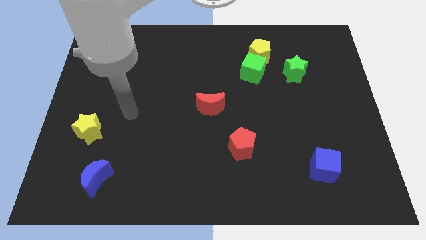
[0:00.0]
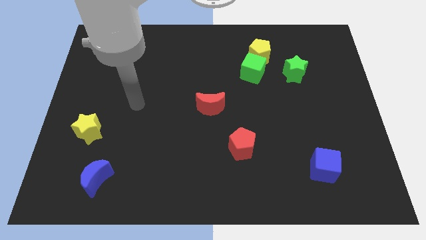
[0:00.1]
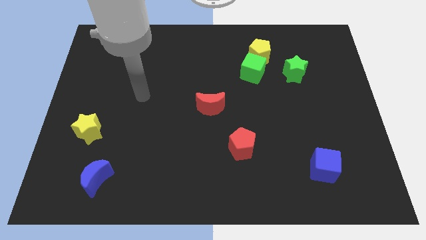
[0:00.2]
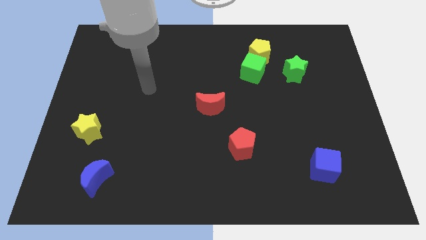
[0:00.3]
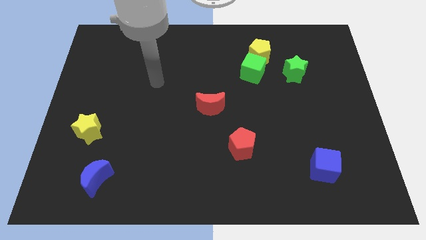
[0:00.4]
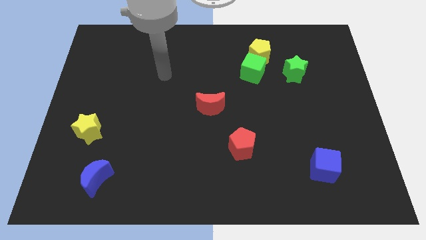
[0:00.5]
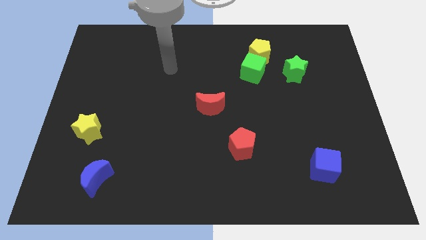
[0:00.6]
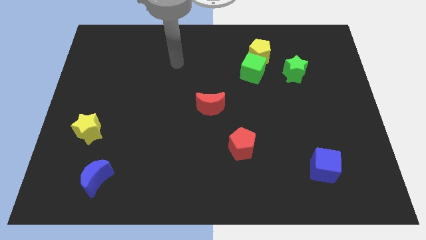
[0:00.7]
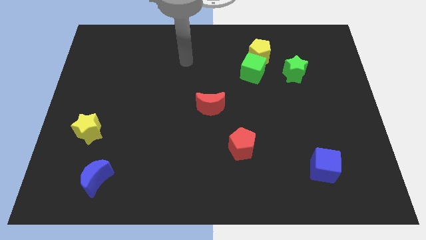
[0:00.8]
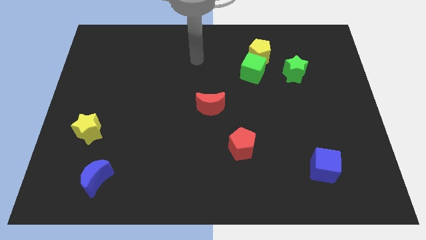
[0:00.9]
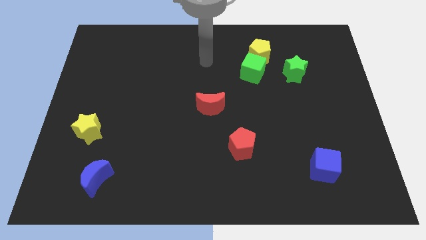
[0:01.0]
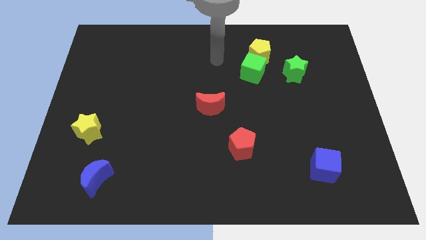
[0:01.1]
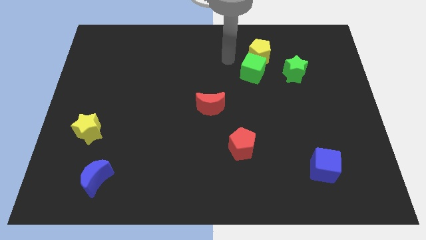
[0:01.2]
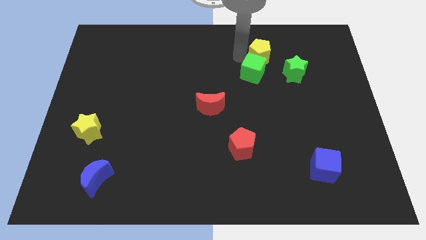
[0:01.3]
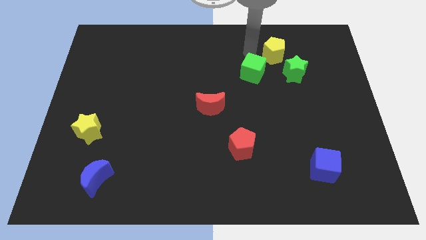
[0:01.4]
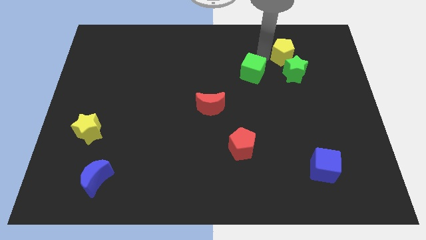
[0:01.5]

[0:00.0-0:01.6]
pull the green cube apart from the yellow pentagon

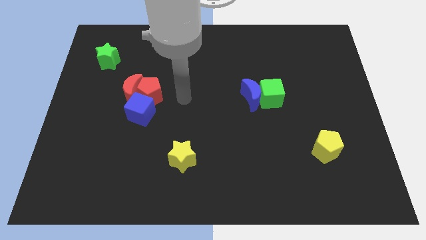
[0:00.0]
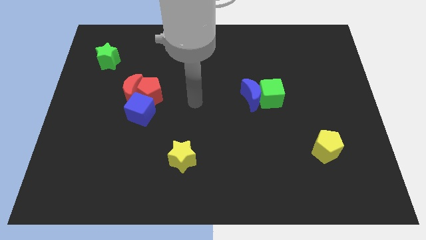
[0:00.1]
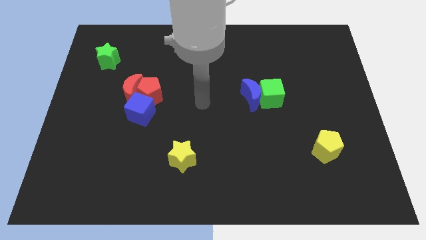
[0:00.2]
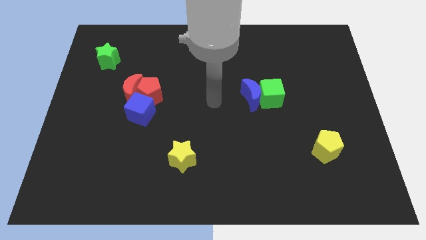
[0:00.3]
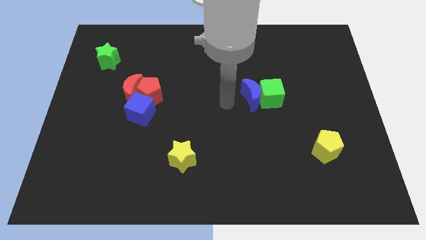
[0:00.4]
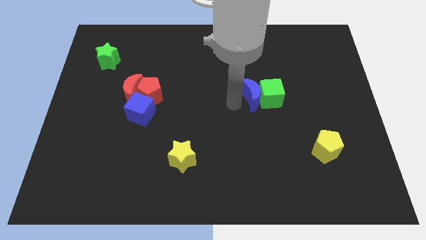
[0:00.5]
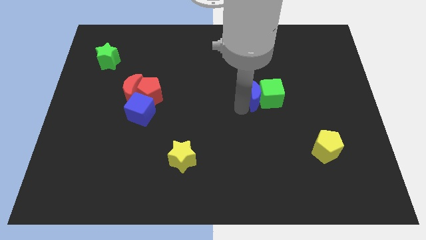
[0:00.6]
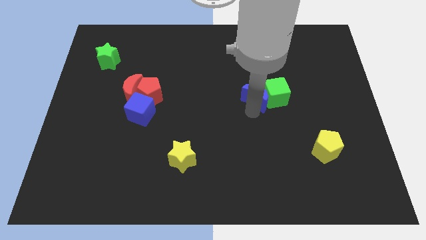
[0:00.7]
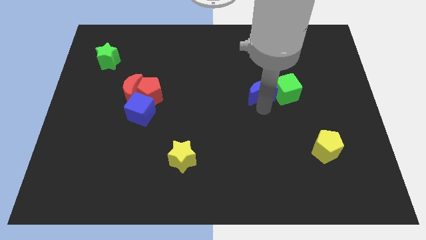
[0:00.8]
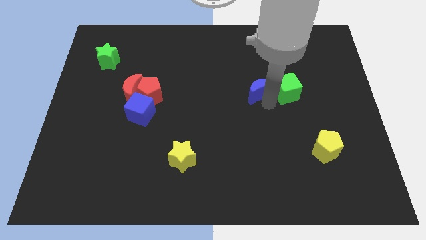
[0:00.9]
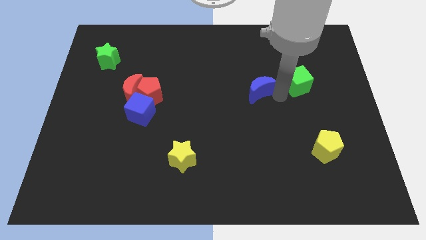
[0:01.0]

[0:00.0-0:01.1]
move the blue moon away from the green cube

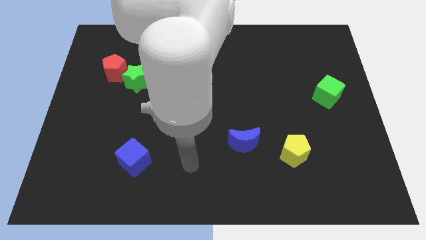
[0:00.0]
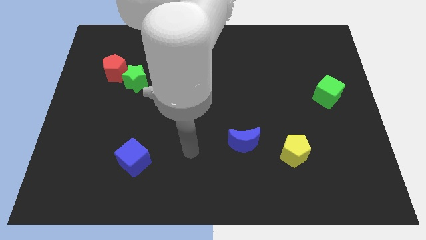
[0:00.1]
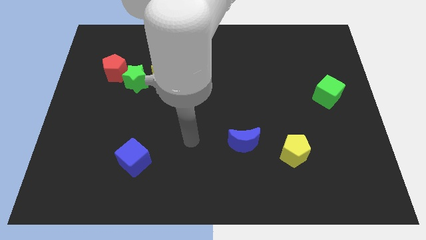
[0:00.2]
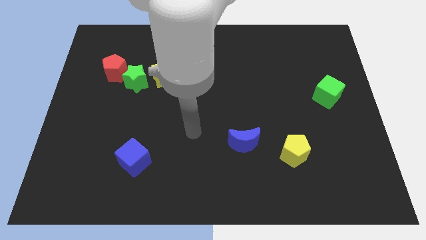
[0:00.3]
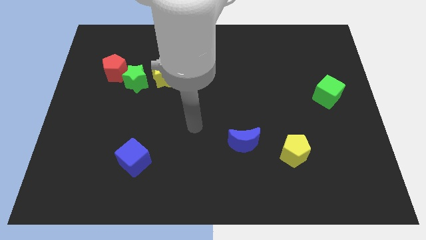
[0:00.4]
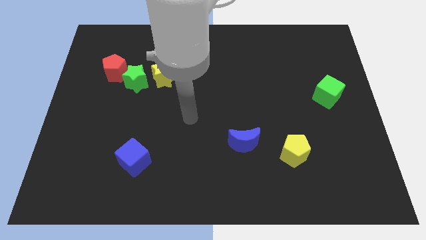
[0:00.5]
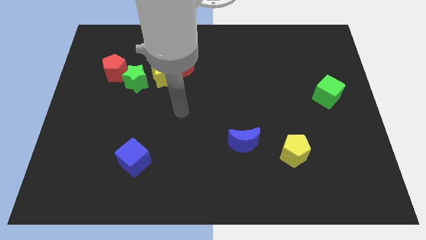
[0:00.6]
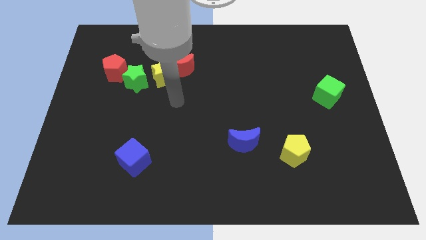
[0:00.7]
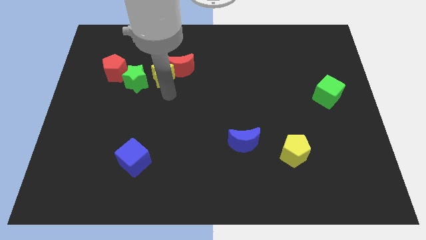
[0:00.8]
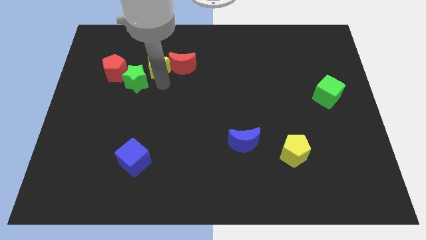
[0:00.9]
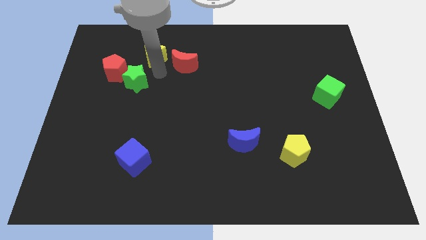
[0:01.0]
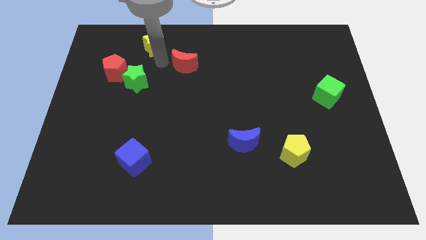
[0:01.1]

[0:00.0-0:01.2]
separate the red moon from the yellow star

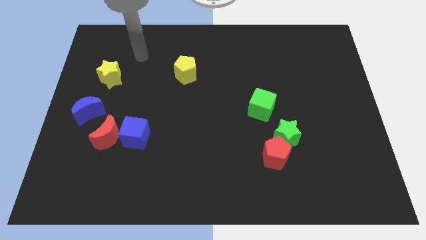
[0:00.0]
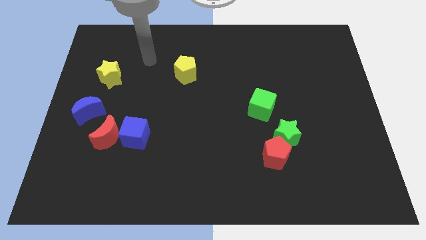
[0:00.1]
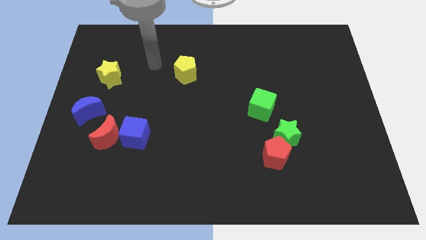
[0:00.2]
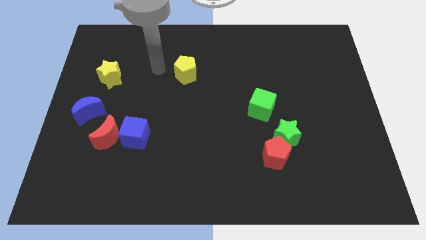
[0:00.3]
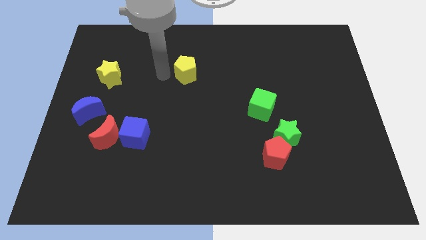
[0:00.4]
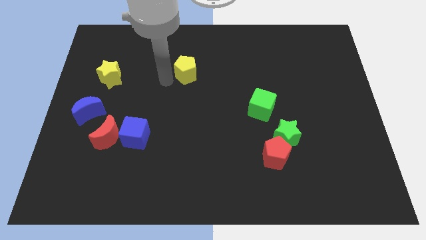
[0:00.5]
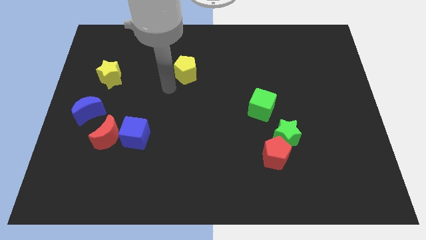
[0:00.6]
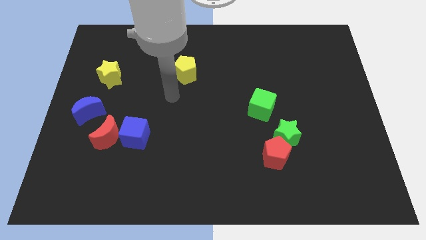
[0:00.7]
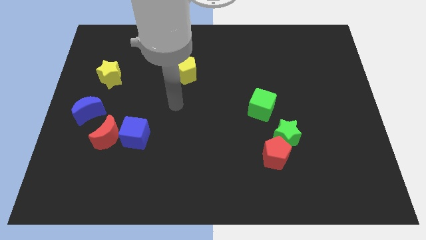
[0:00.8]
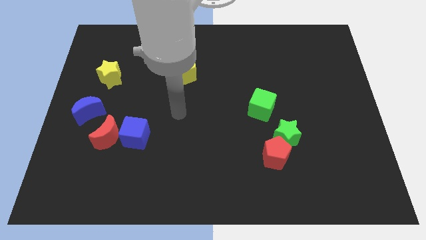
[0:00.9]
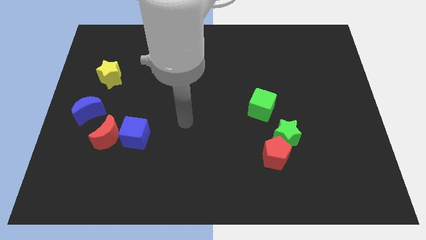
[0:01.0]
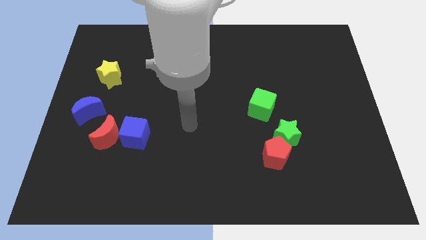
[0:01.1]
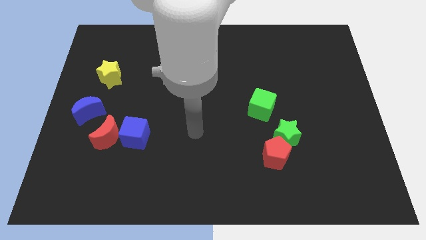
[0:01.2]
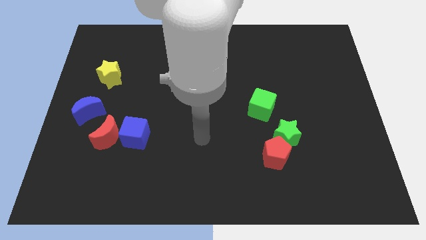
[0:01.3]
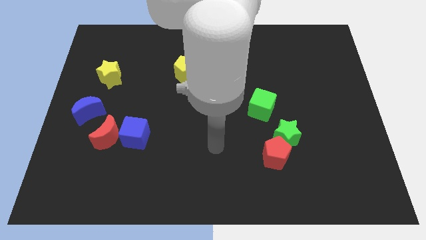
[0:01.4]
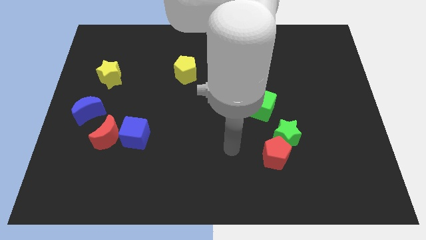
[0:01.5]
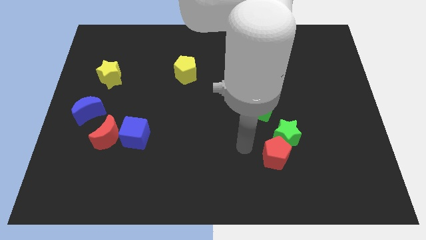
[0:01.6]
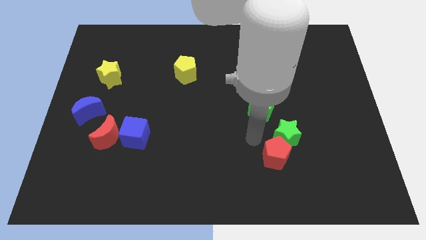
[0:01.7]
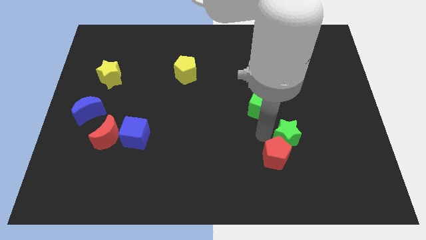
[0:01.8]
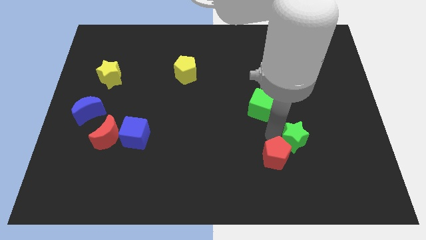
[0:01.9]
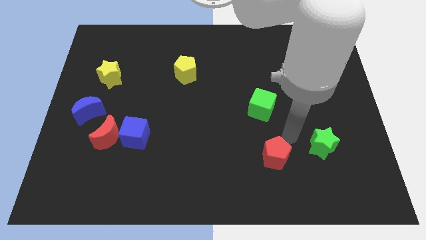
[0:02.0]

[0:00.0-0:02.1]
pull the red pentagon apart from the green star

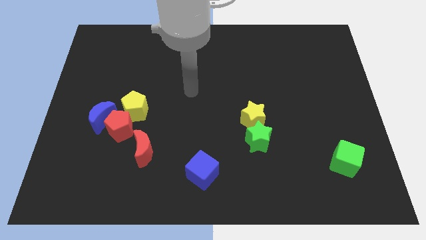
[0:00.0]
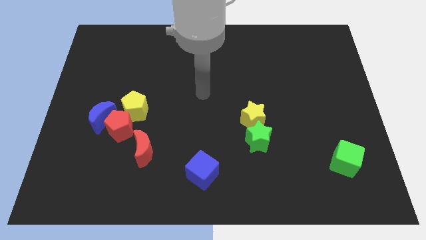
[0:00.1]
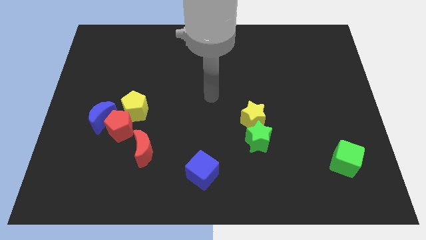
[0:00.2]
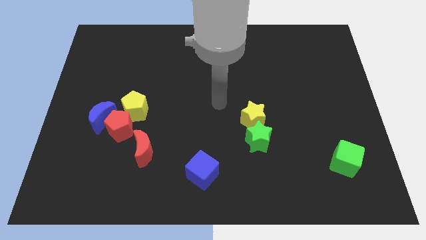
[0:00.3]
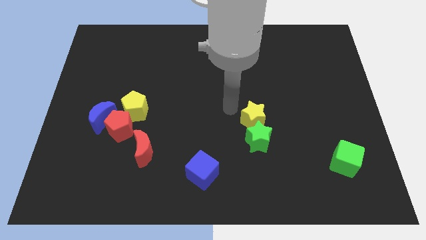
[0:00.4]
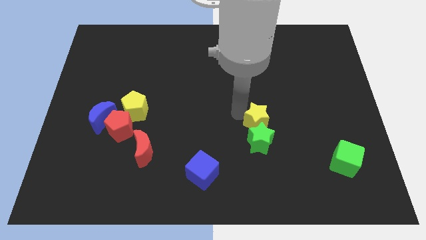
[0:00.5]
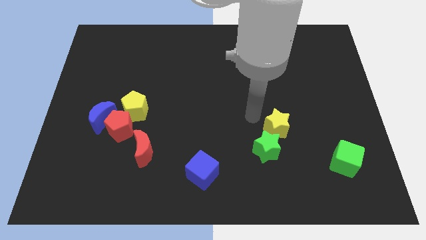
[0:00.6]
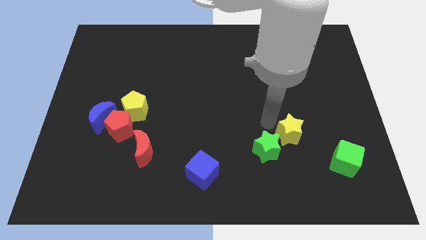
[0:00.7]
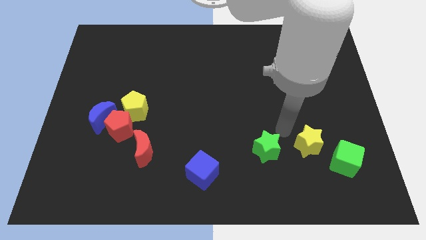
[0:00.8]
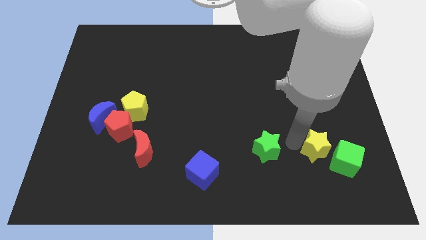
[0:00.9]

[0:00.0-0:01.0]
move the green star away from the yellow star

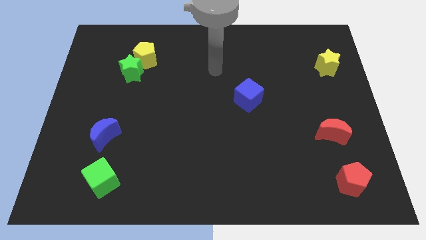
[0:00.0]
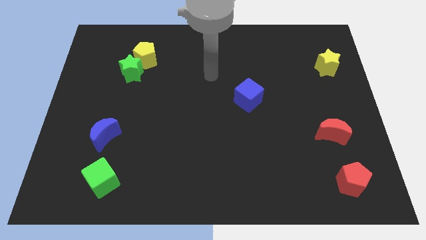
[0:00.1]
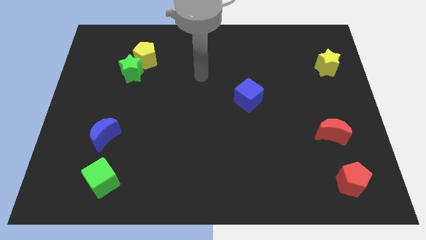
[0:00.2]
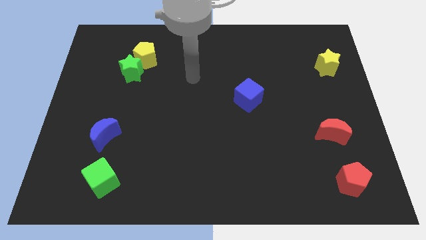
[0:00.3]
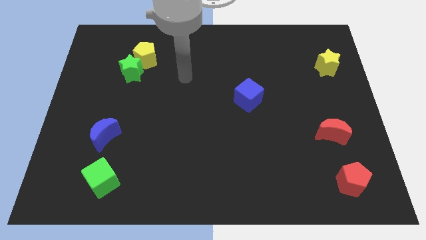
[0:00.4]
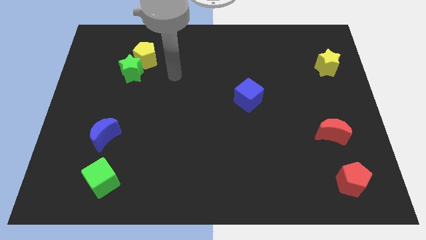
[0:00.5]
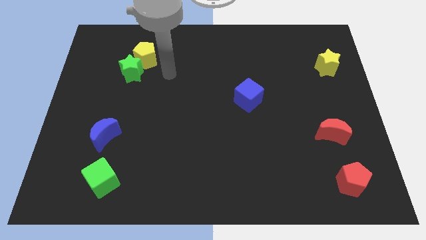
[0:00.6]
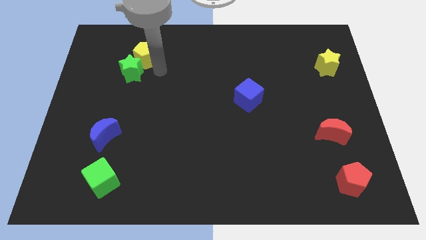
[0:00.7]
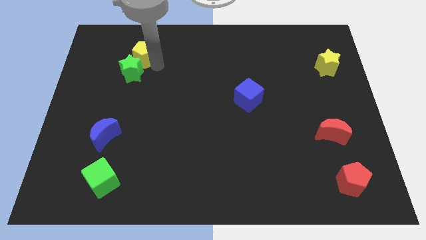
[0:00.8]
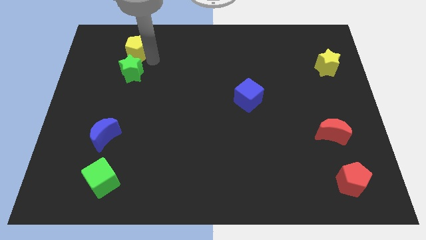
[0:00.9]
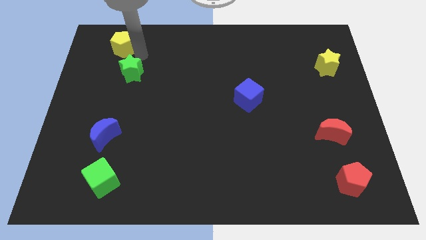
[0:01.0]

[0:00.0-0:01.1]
move the green star away from the yellow pentagon

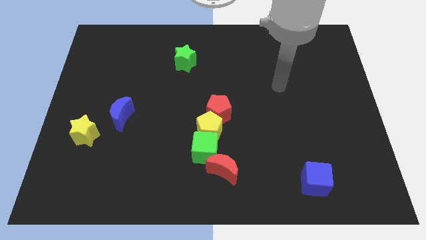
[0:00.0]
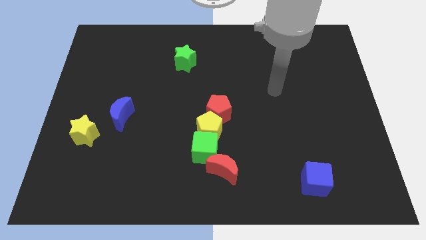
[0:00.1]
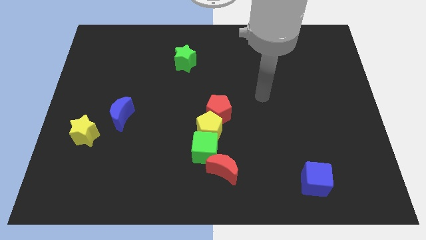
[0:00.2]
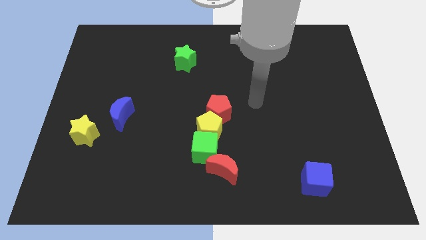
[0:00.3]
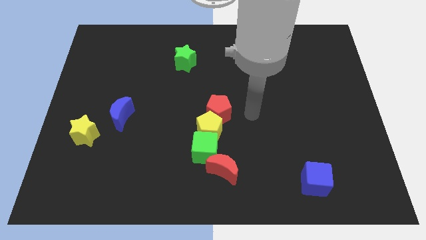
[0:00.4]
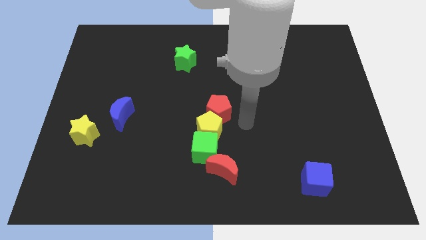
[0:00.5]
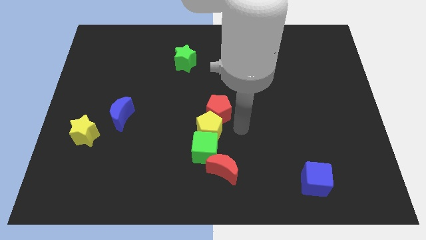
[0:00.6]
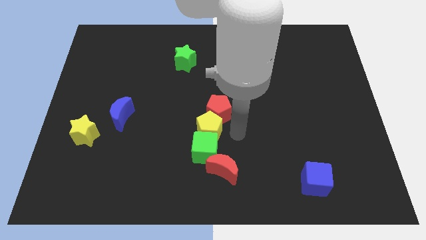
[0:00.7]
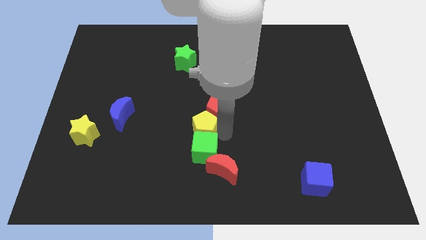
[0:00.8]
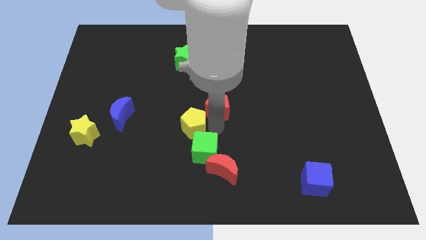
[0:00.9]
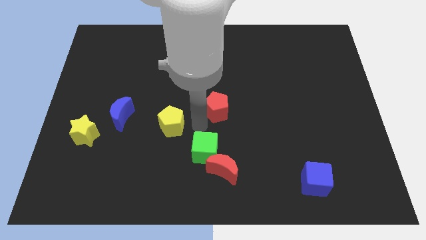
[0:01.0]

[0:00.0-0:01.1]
pull the red pentagon apart from the yellow pentagon

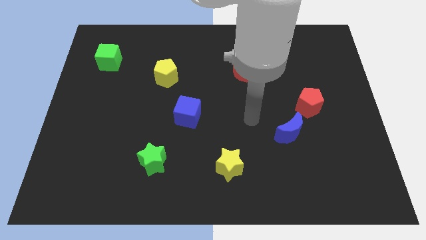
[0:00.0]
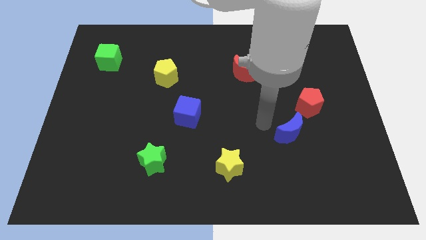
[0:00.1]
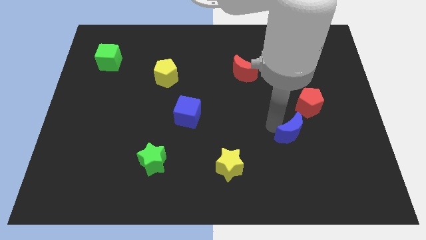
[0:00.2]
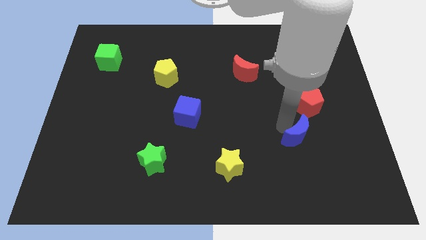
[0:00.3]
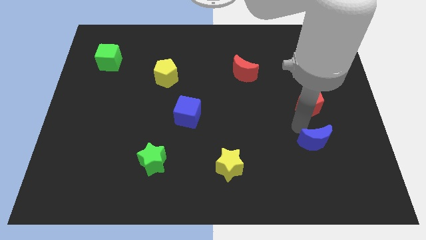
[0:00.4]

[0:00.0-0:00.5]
separate the red pentagon from the blue moon
